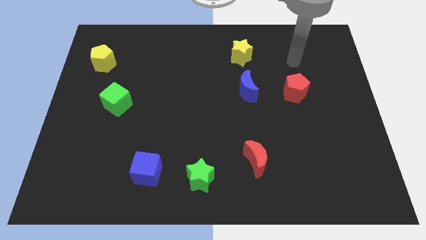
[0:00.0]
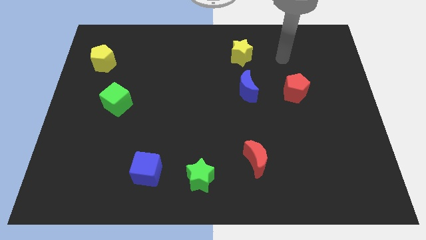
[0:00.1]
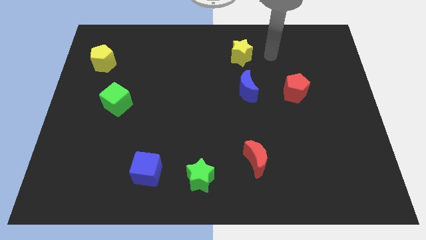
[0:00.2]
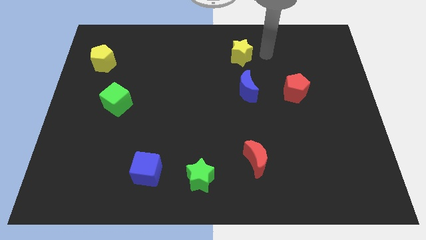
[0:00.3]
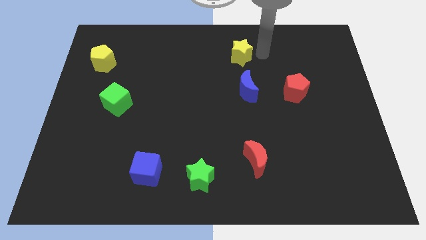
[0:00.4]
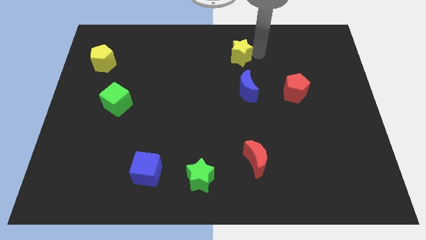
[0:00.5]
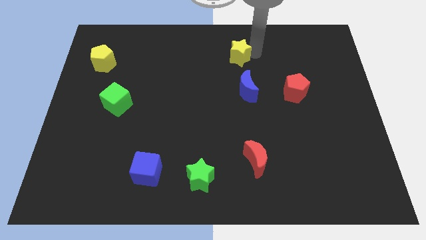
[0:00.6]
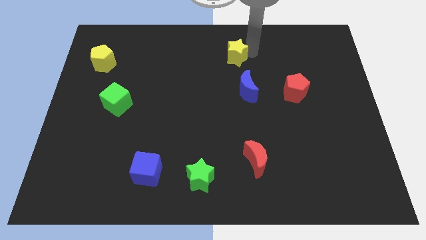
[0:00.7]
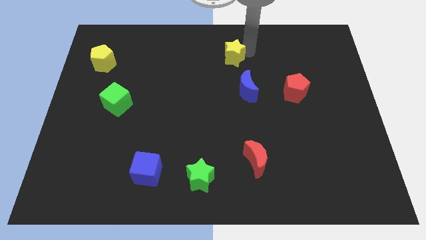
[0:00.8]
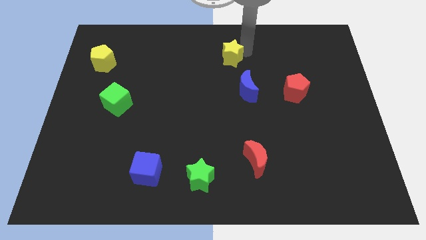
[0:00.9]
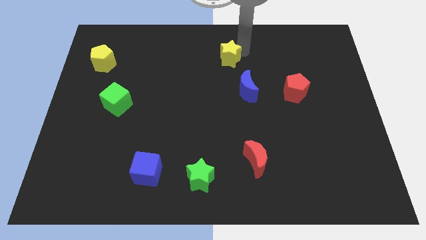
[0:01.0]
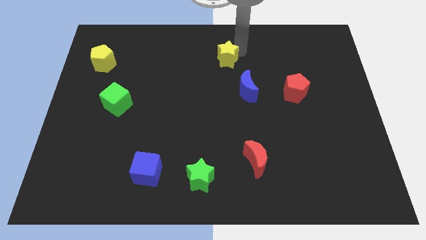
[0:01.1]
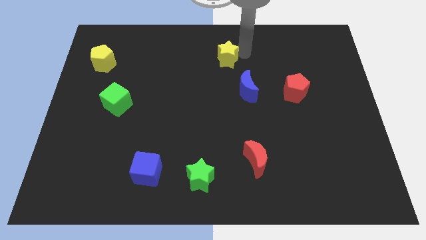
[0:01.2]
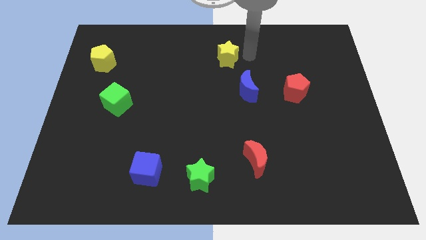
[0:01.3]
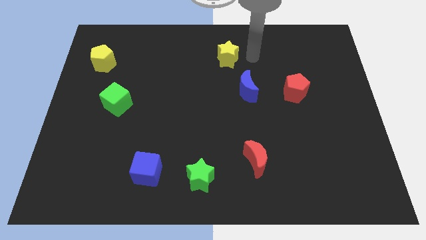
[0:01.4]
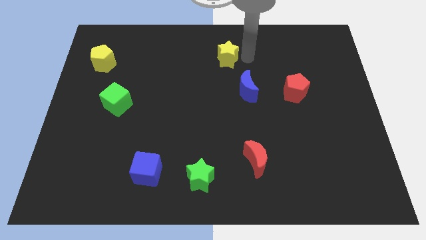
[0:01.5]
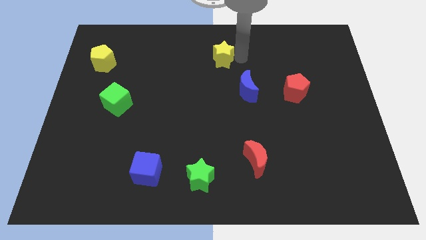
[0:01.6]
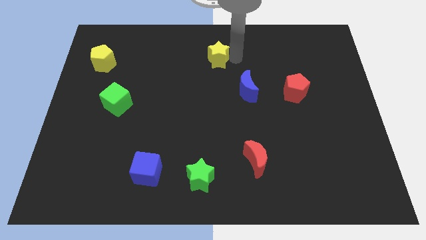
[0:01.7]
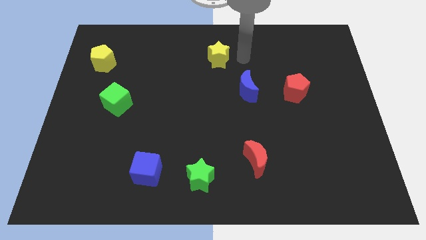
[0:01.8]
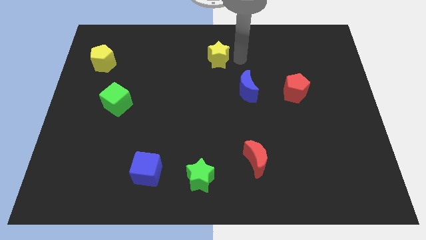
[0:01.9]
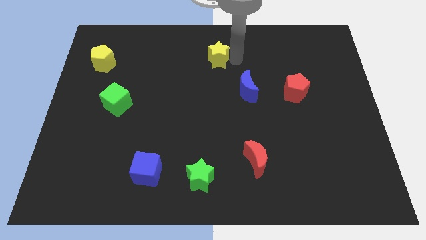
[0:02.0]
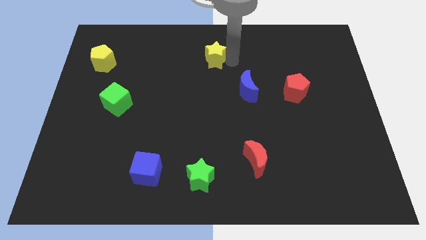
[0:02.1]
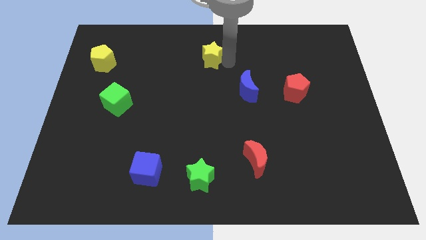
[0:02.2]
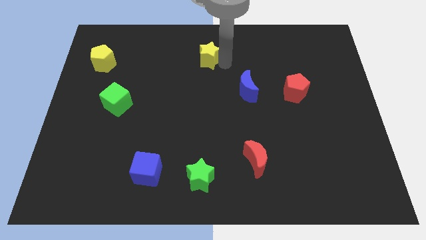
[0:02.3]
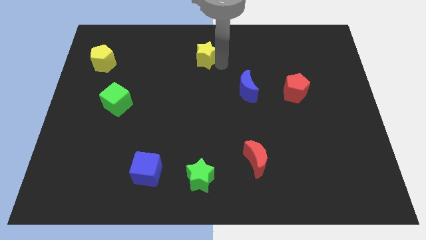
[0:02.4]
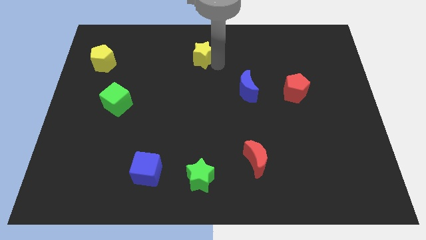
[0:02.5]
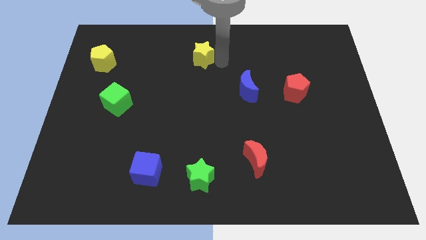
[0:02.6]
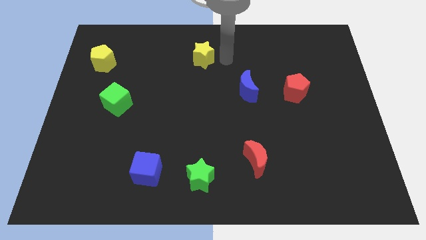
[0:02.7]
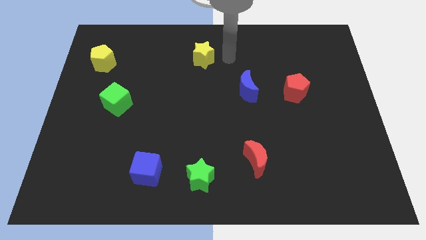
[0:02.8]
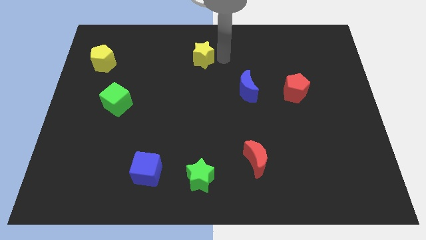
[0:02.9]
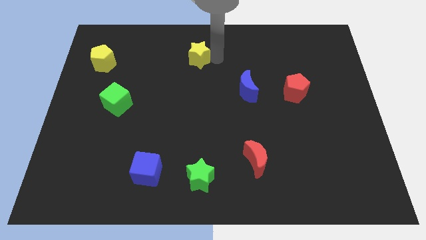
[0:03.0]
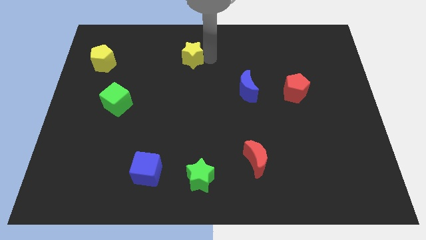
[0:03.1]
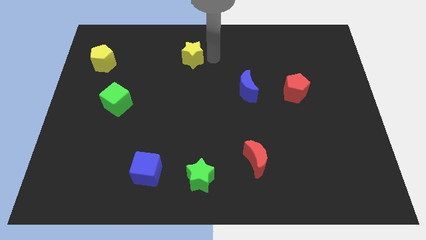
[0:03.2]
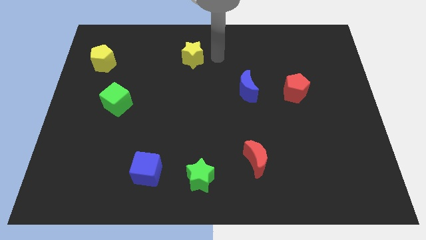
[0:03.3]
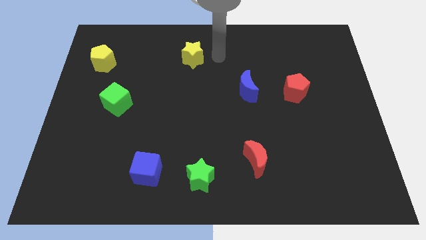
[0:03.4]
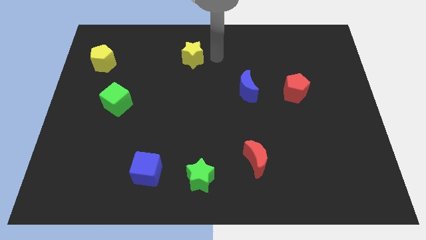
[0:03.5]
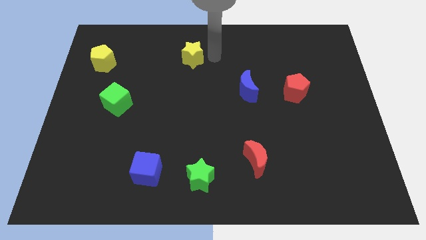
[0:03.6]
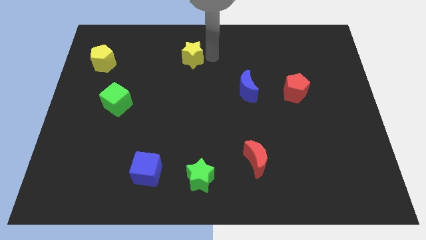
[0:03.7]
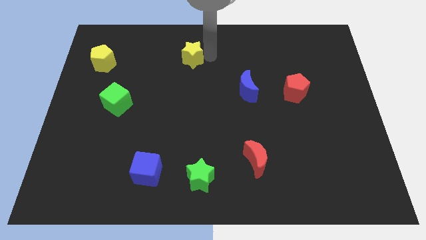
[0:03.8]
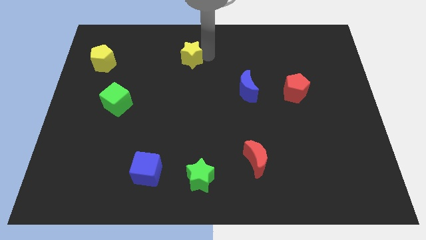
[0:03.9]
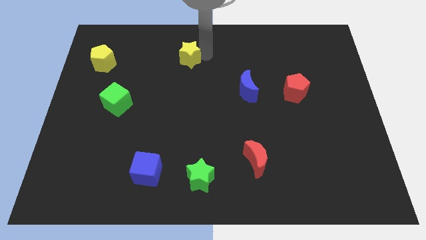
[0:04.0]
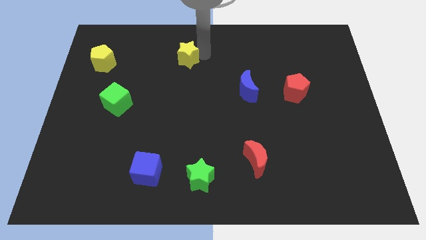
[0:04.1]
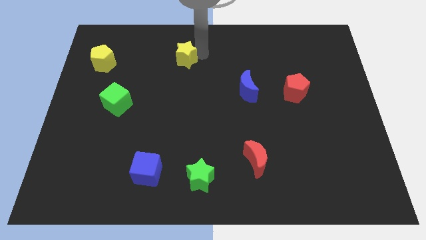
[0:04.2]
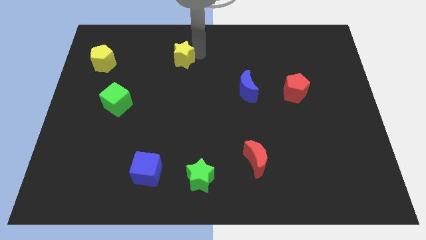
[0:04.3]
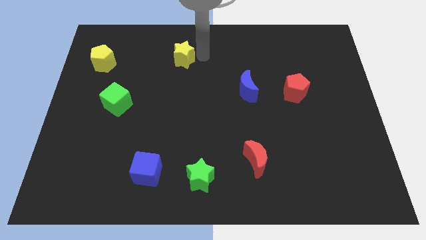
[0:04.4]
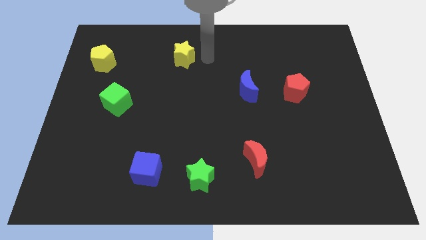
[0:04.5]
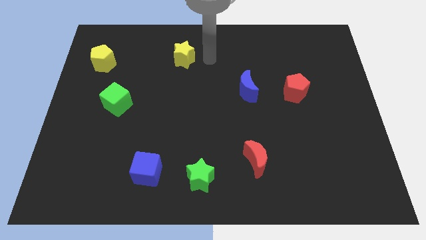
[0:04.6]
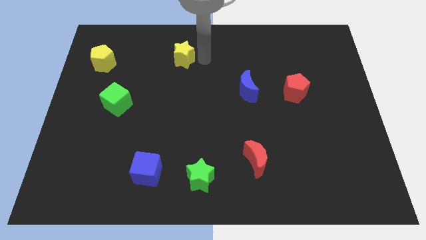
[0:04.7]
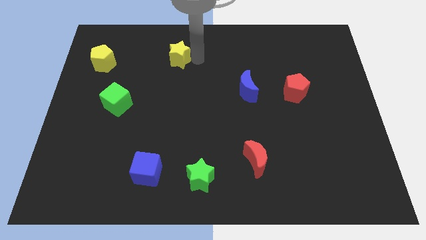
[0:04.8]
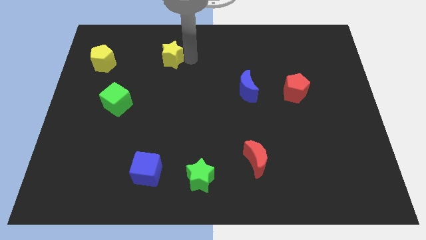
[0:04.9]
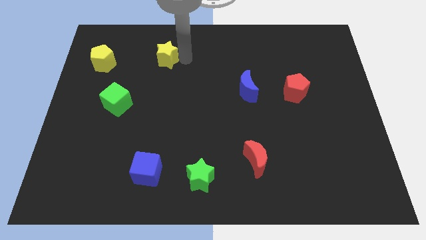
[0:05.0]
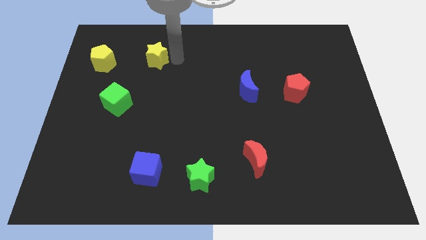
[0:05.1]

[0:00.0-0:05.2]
push the yellow star to the left

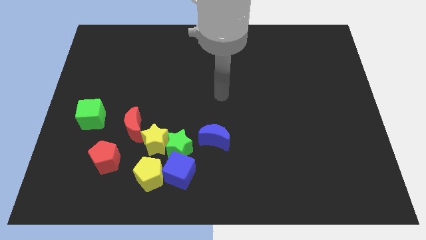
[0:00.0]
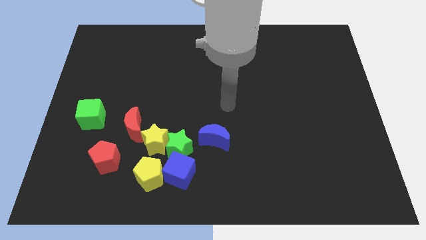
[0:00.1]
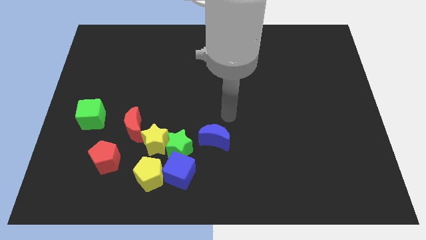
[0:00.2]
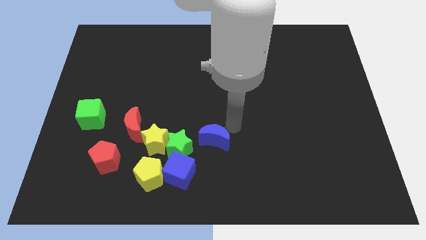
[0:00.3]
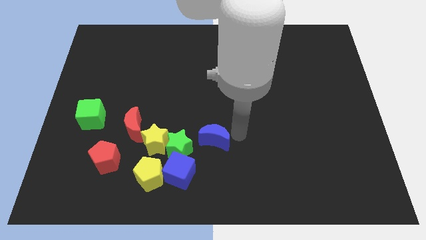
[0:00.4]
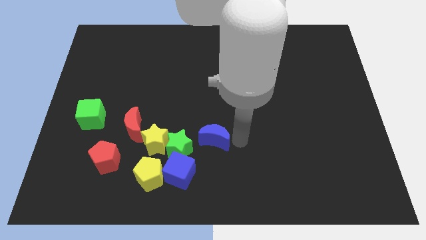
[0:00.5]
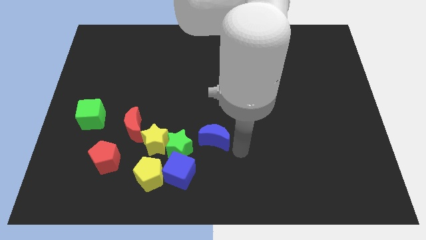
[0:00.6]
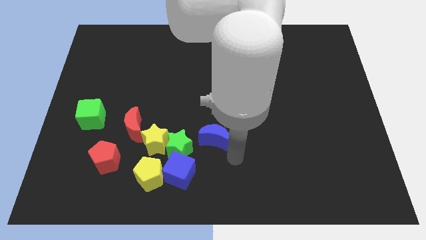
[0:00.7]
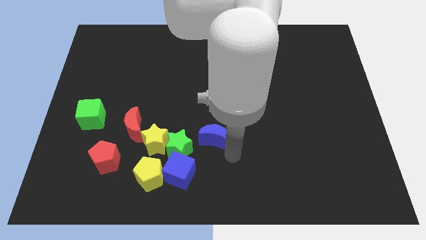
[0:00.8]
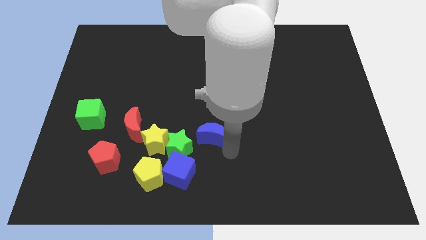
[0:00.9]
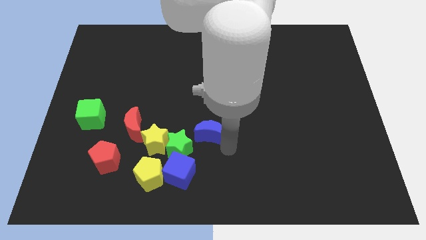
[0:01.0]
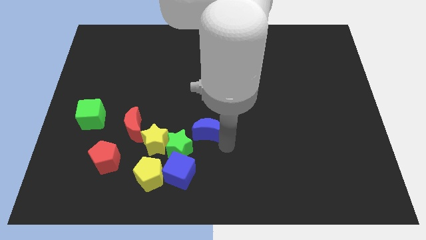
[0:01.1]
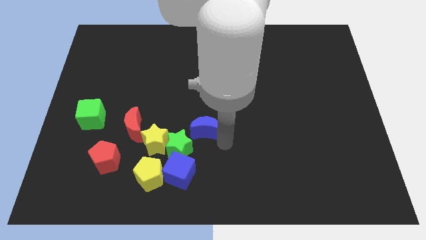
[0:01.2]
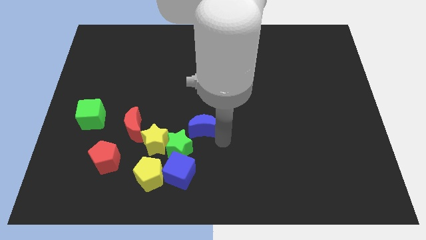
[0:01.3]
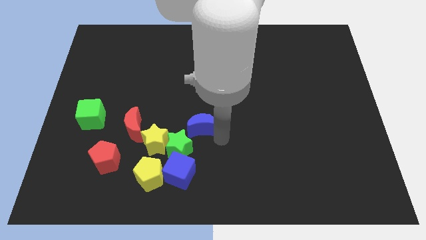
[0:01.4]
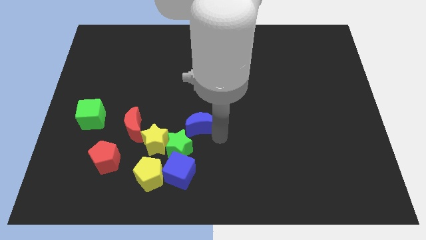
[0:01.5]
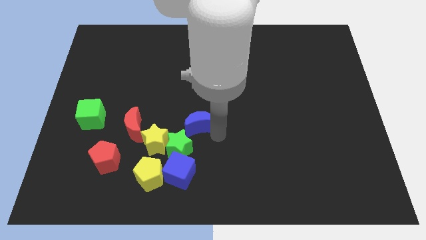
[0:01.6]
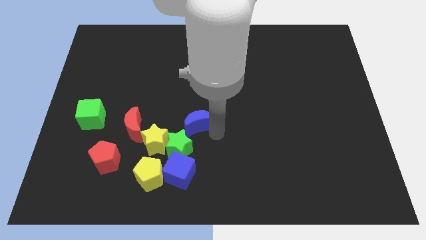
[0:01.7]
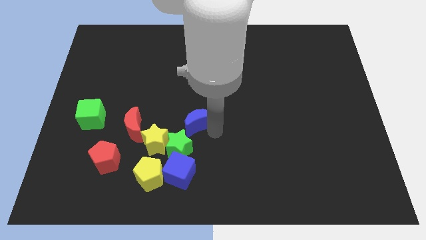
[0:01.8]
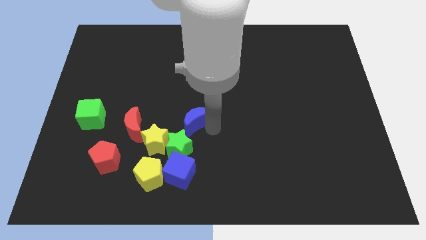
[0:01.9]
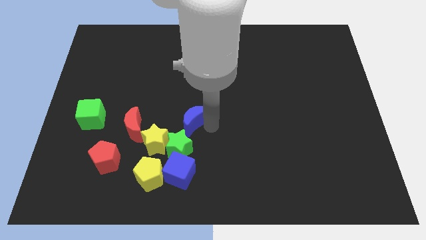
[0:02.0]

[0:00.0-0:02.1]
slightly push the blue moon diagonally upwards and to the left

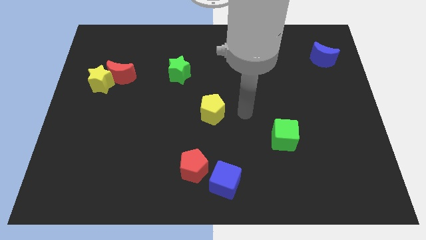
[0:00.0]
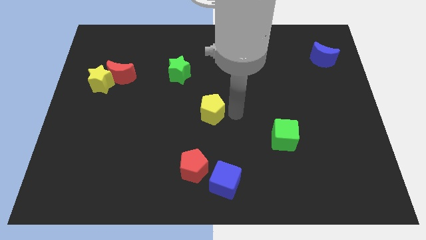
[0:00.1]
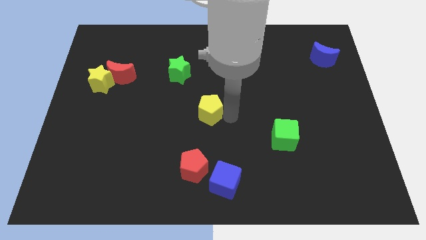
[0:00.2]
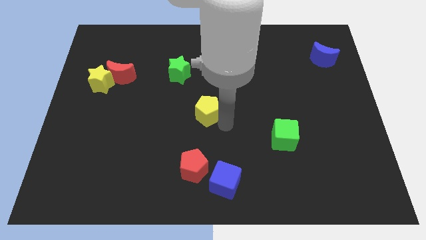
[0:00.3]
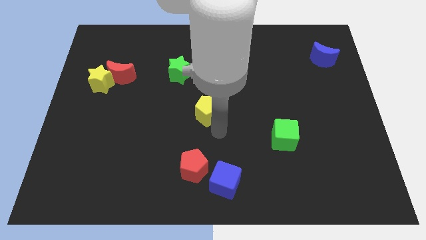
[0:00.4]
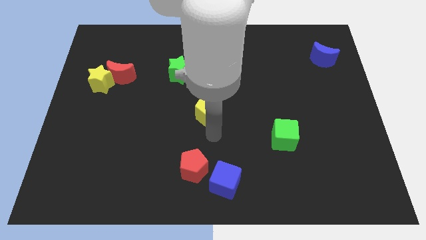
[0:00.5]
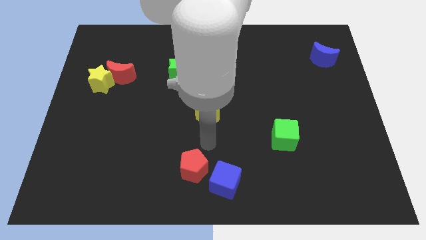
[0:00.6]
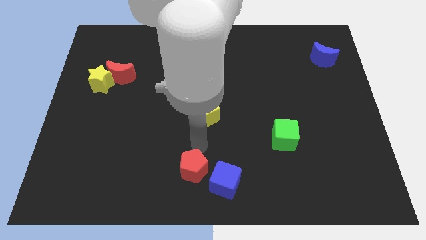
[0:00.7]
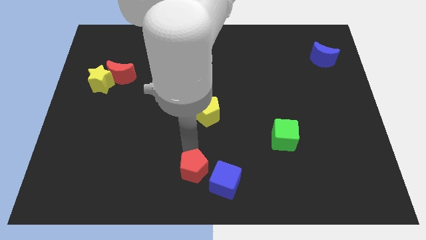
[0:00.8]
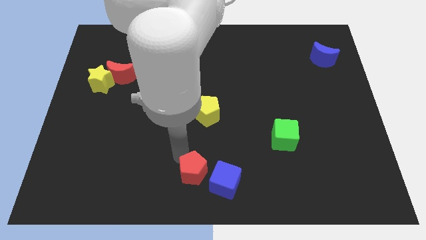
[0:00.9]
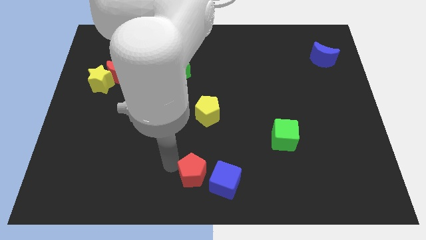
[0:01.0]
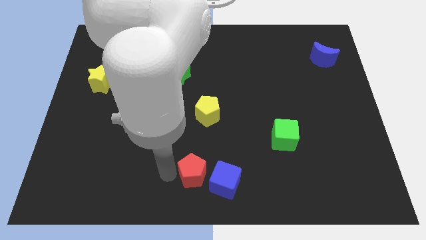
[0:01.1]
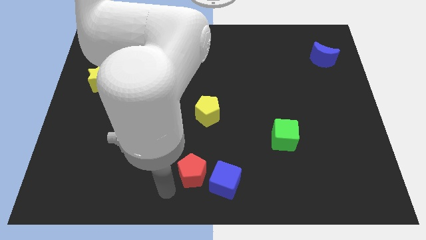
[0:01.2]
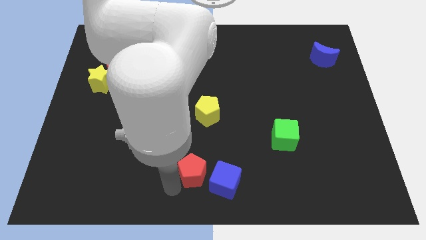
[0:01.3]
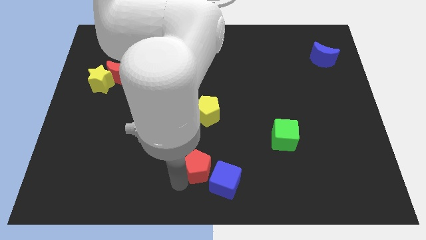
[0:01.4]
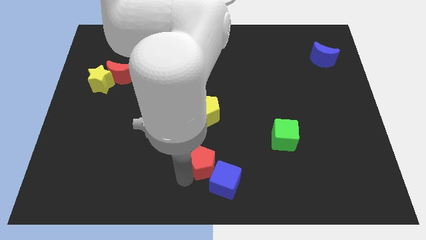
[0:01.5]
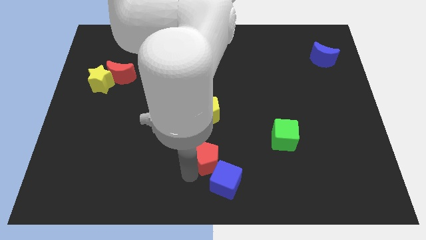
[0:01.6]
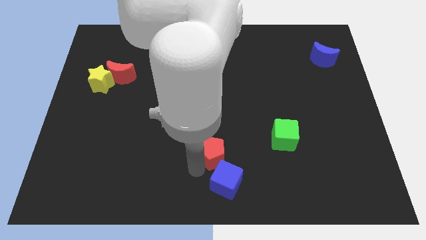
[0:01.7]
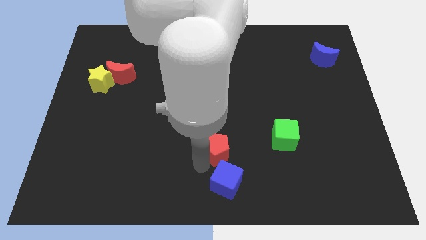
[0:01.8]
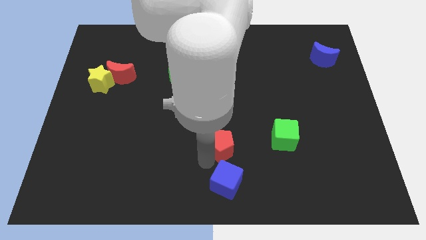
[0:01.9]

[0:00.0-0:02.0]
push the red pentagon up and then to the right a bit
